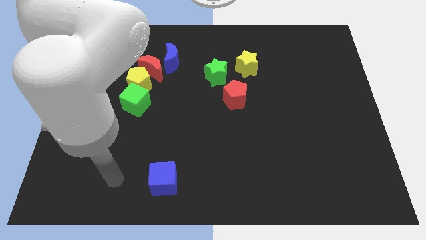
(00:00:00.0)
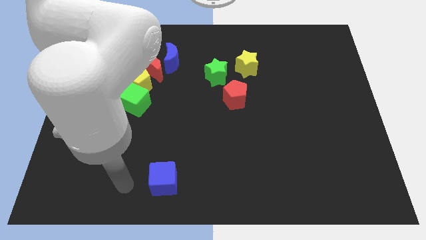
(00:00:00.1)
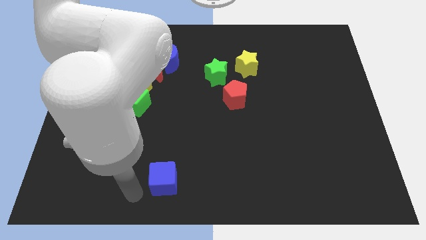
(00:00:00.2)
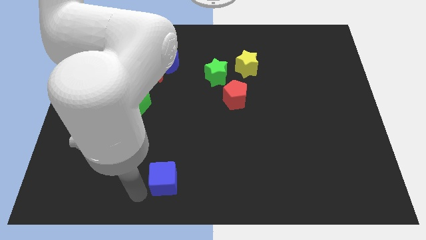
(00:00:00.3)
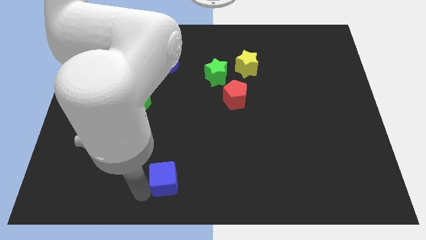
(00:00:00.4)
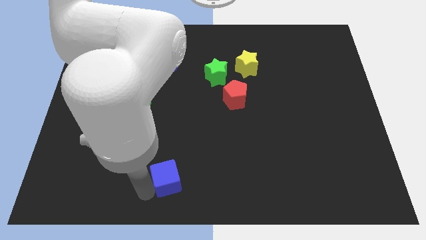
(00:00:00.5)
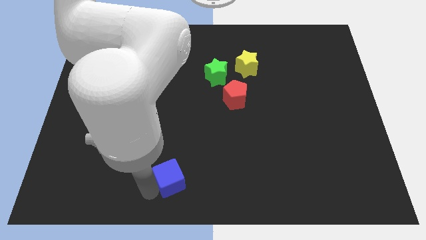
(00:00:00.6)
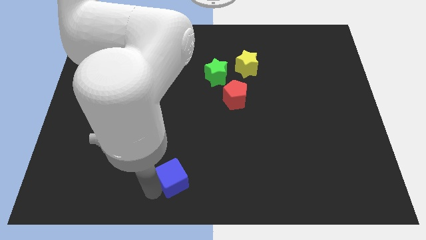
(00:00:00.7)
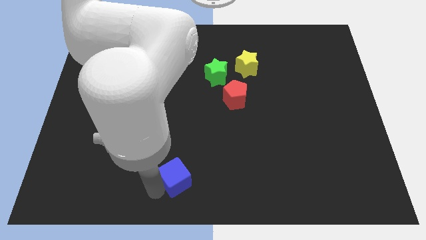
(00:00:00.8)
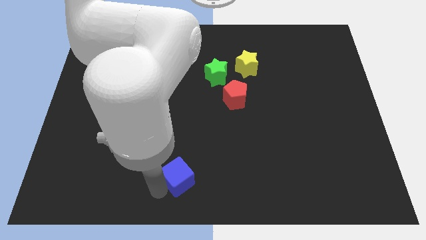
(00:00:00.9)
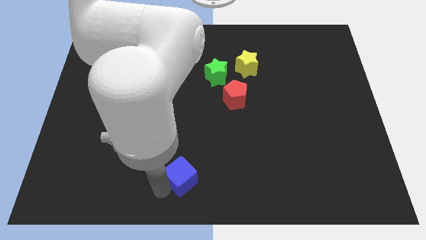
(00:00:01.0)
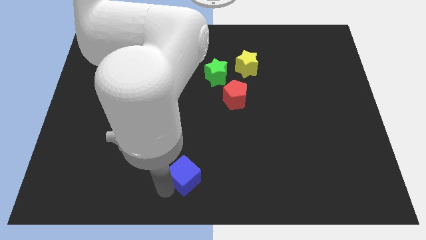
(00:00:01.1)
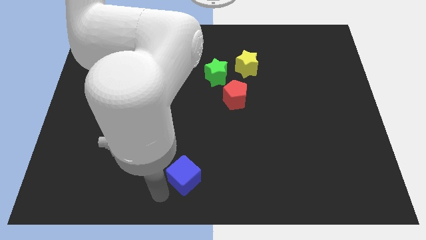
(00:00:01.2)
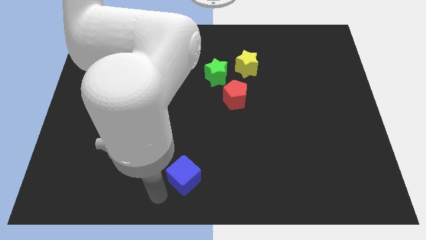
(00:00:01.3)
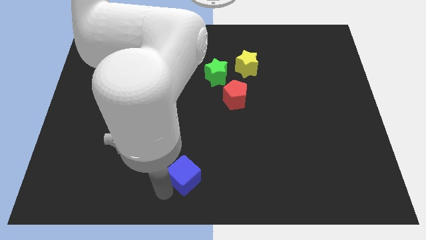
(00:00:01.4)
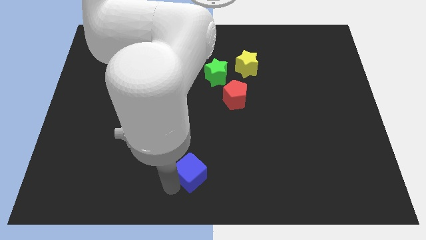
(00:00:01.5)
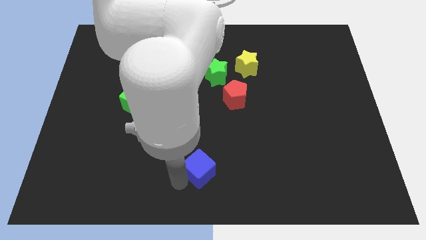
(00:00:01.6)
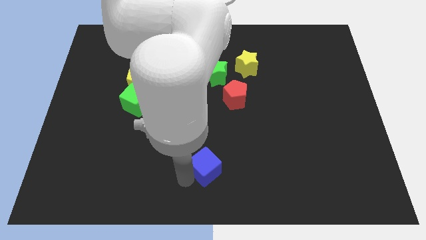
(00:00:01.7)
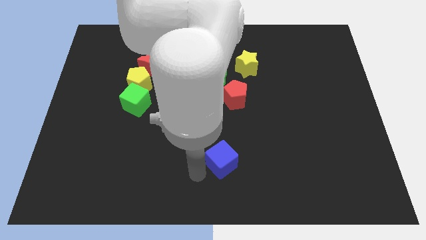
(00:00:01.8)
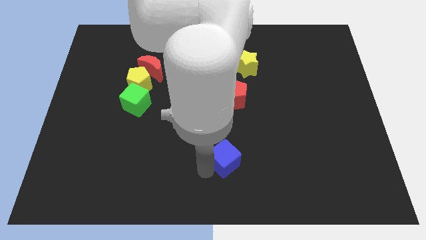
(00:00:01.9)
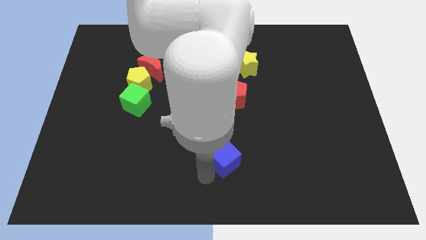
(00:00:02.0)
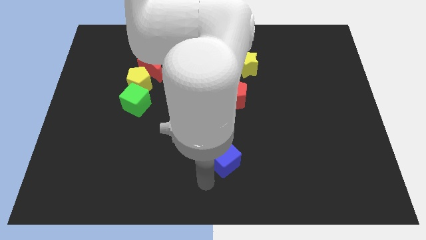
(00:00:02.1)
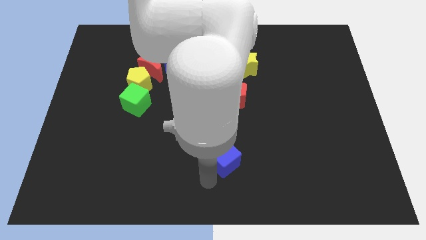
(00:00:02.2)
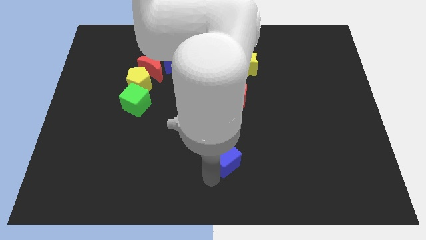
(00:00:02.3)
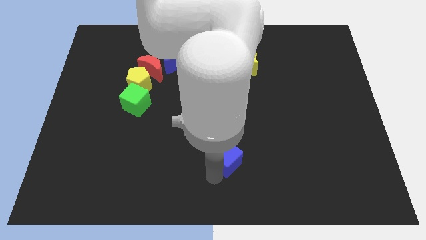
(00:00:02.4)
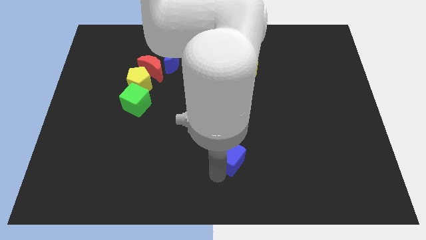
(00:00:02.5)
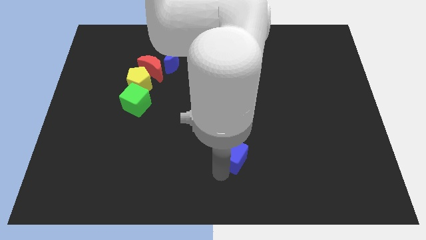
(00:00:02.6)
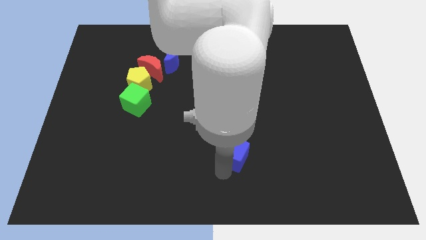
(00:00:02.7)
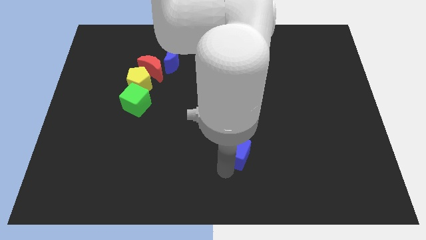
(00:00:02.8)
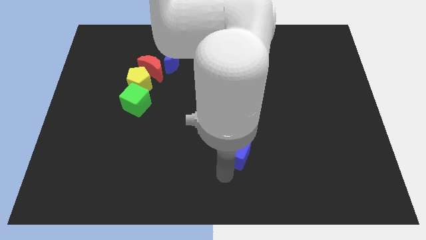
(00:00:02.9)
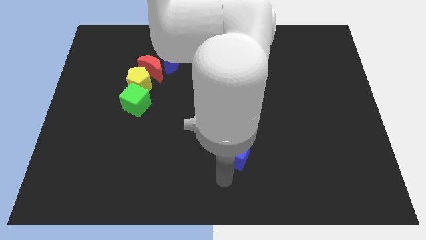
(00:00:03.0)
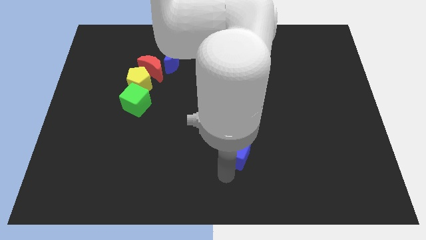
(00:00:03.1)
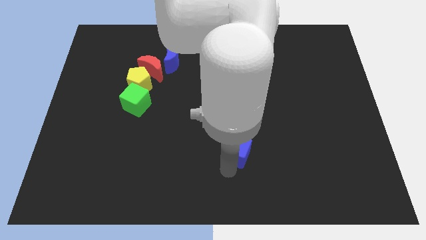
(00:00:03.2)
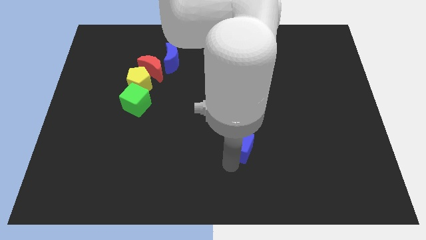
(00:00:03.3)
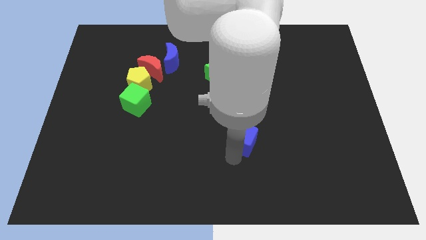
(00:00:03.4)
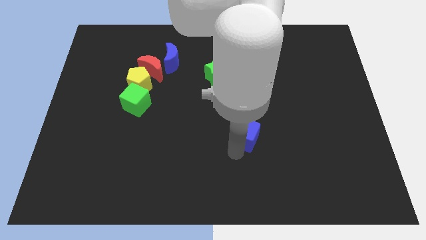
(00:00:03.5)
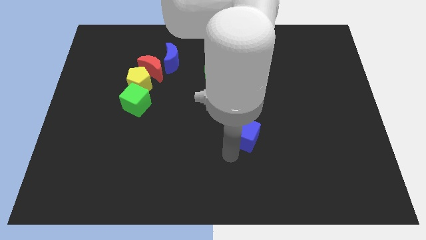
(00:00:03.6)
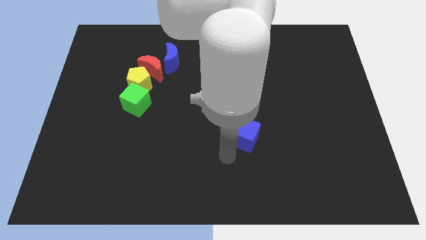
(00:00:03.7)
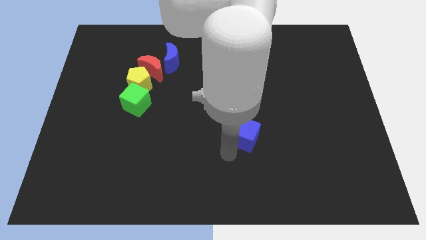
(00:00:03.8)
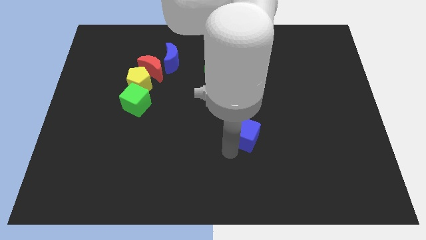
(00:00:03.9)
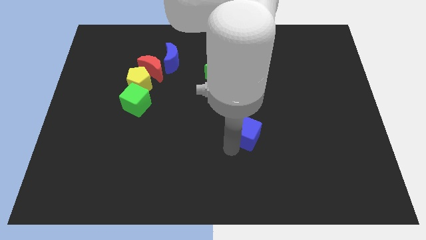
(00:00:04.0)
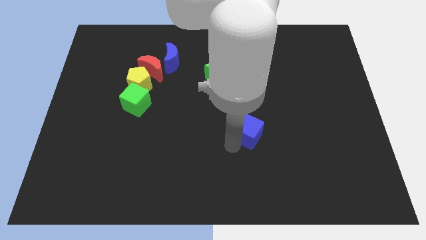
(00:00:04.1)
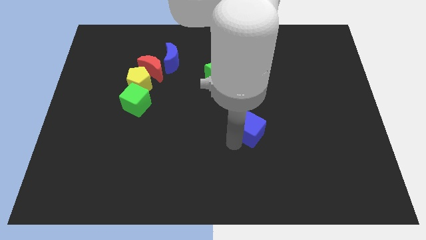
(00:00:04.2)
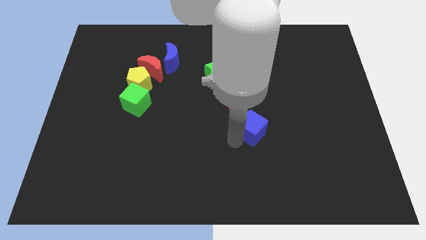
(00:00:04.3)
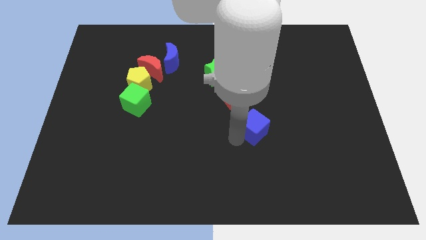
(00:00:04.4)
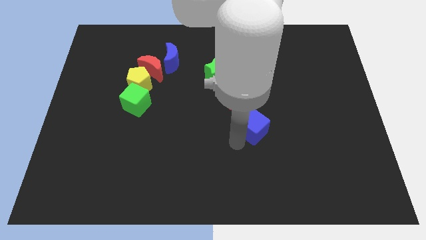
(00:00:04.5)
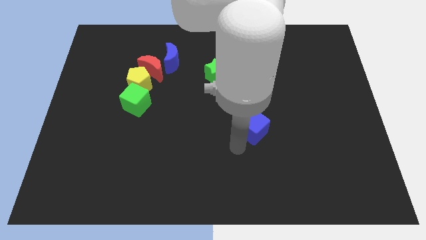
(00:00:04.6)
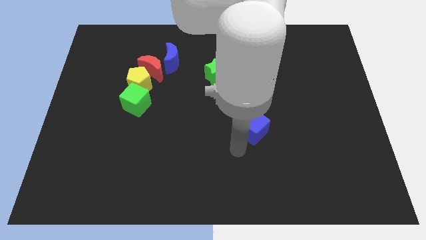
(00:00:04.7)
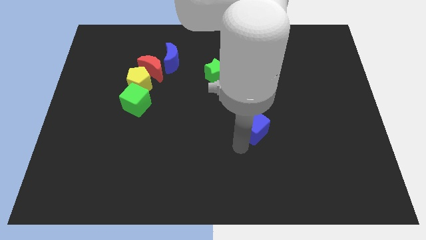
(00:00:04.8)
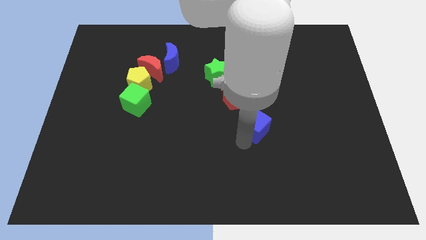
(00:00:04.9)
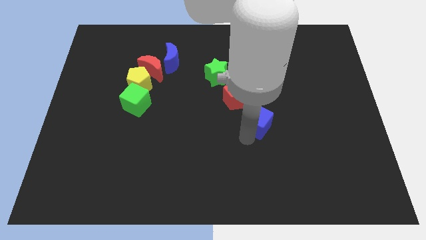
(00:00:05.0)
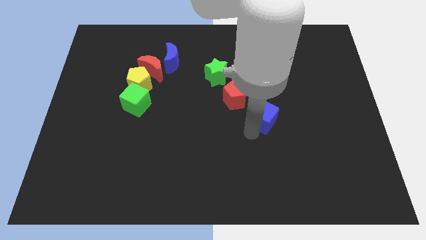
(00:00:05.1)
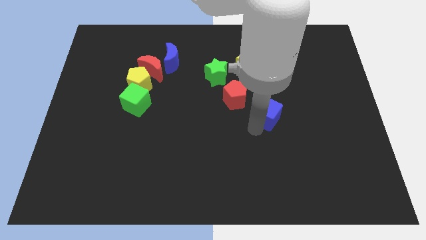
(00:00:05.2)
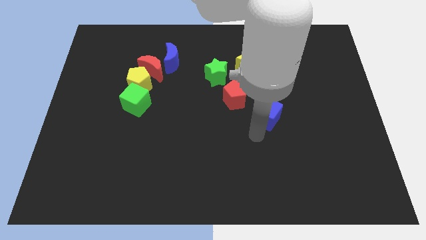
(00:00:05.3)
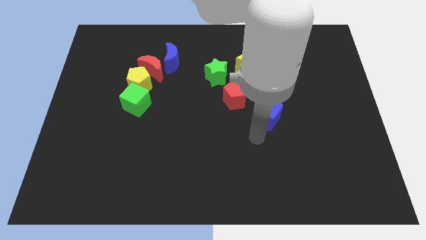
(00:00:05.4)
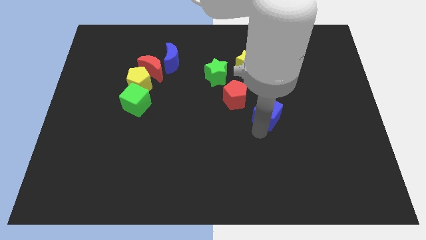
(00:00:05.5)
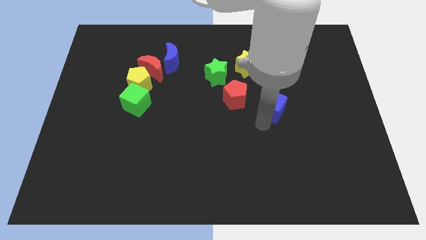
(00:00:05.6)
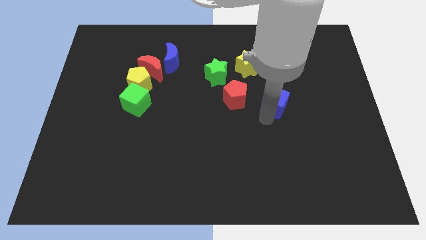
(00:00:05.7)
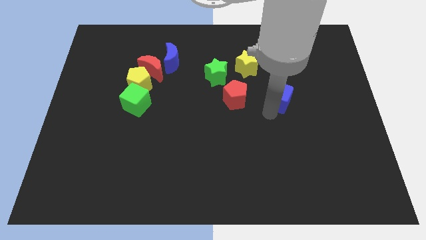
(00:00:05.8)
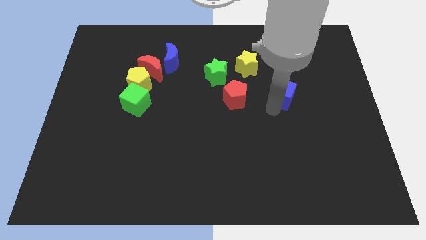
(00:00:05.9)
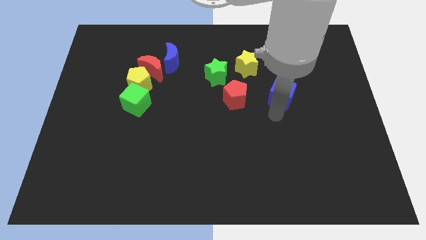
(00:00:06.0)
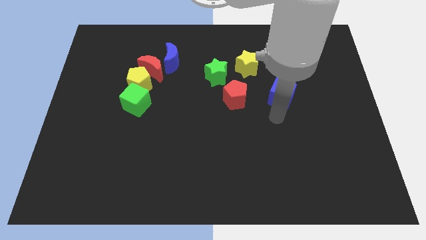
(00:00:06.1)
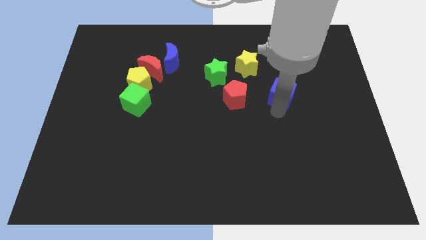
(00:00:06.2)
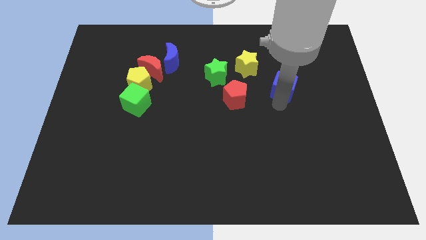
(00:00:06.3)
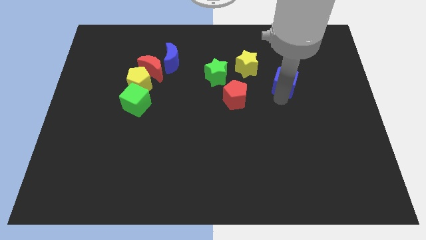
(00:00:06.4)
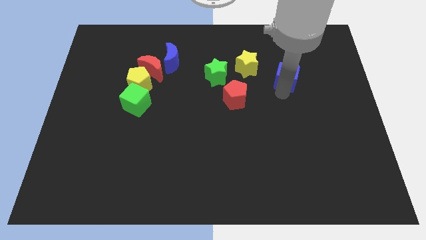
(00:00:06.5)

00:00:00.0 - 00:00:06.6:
put the blue cube to the right side of the yellow star
